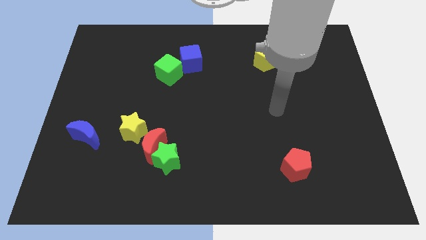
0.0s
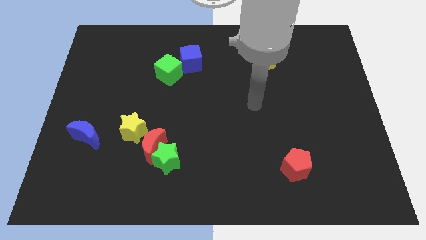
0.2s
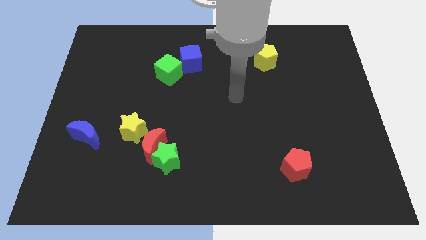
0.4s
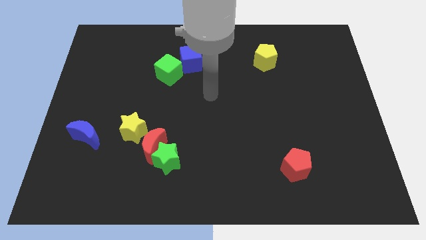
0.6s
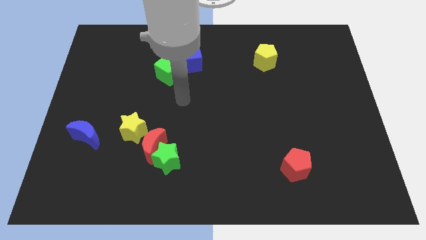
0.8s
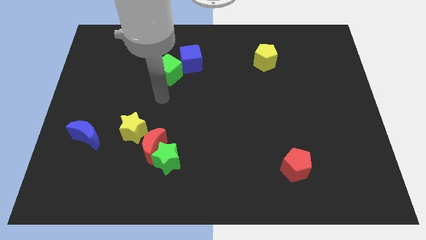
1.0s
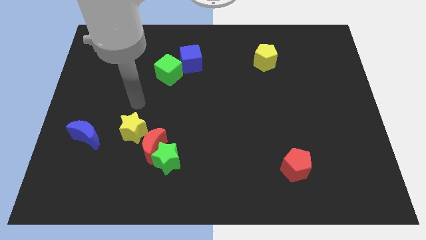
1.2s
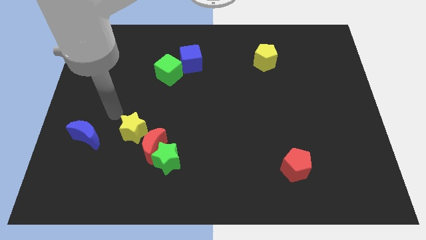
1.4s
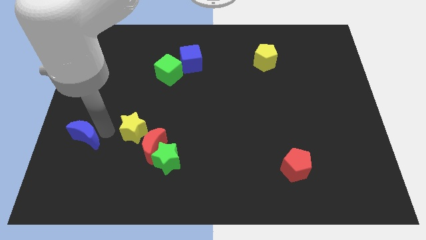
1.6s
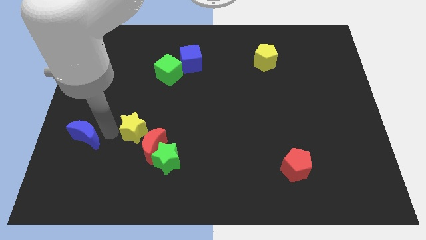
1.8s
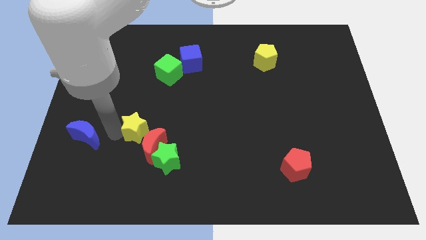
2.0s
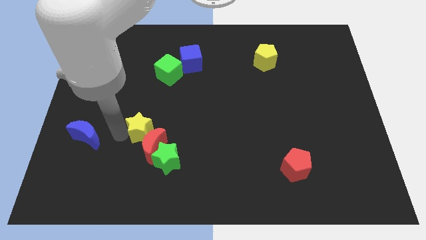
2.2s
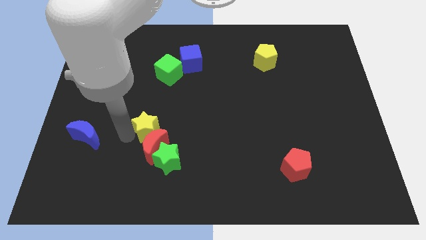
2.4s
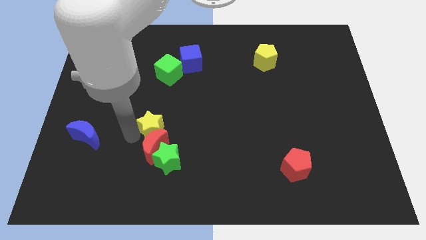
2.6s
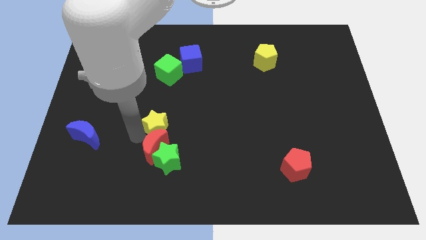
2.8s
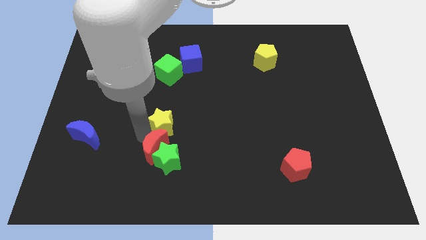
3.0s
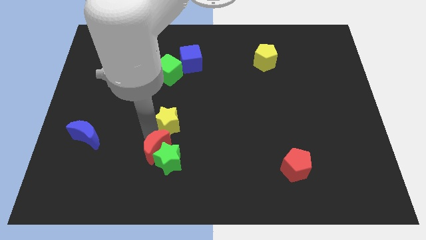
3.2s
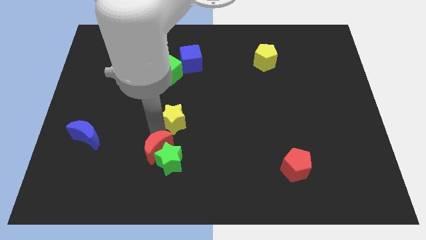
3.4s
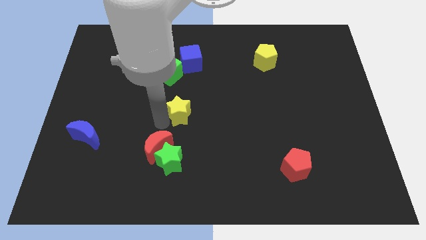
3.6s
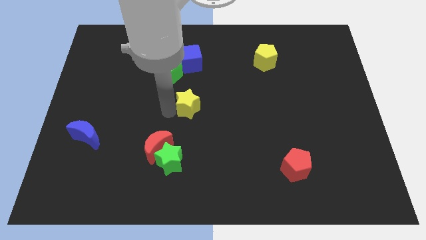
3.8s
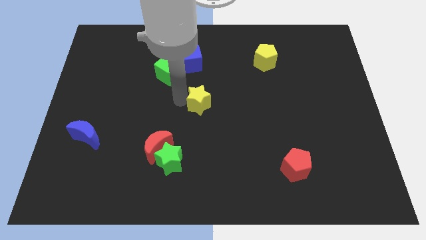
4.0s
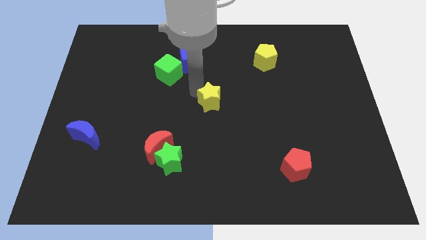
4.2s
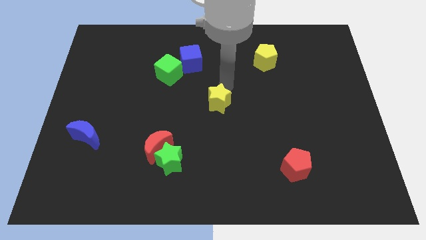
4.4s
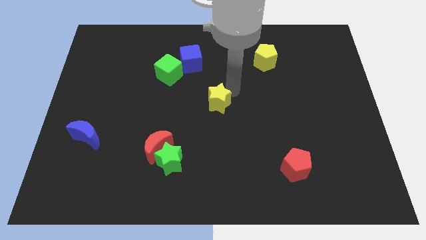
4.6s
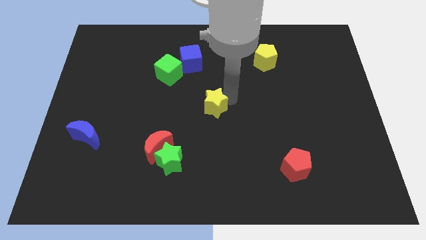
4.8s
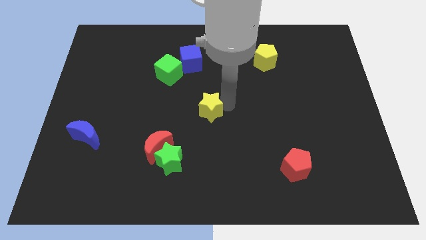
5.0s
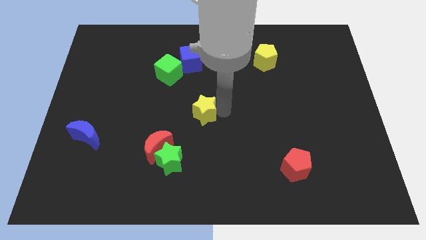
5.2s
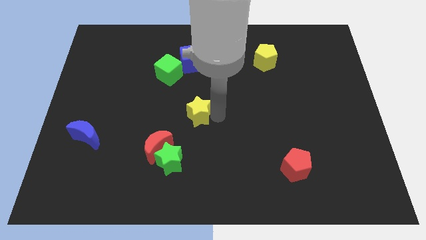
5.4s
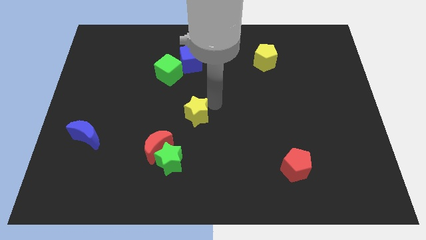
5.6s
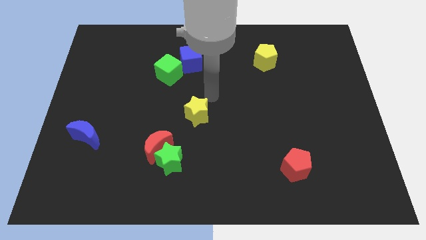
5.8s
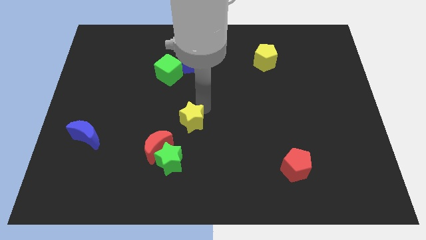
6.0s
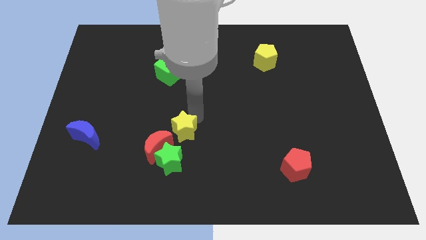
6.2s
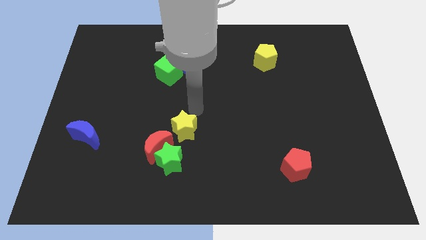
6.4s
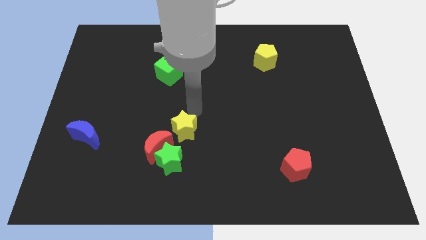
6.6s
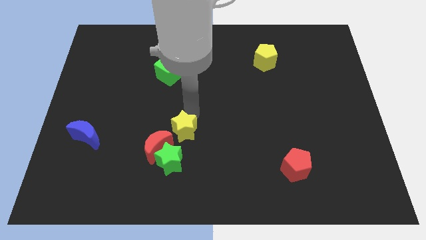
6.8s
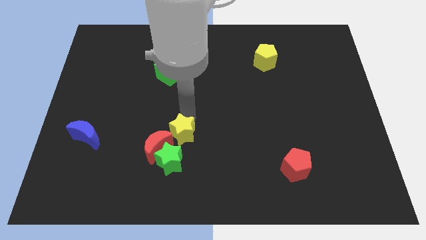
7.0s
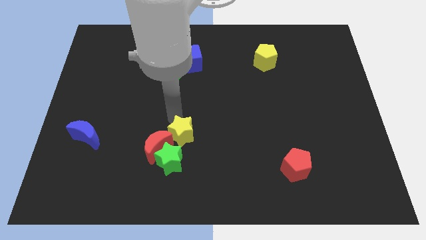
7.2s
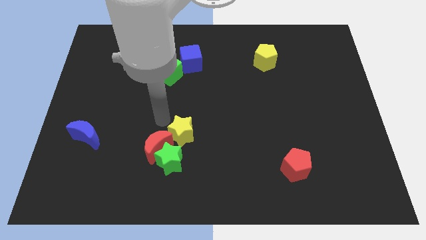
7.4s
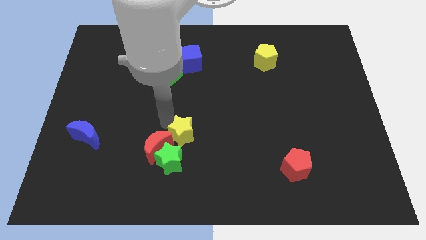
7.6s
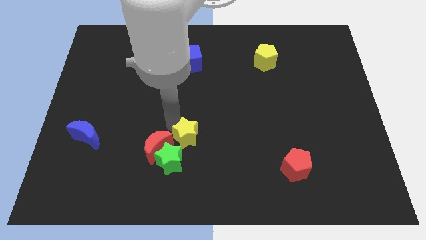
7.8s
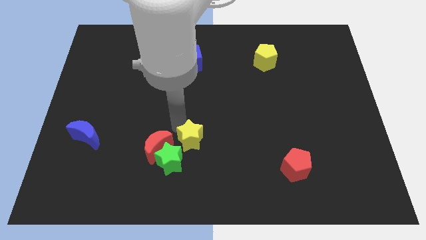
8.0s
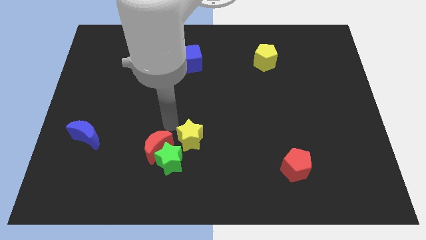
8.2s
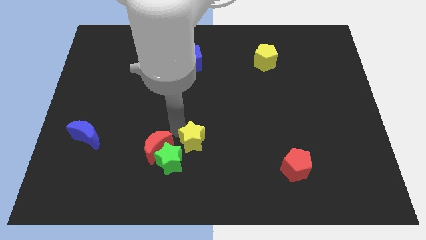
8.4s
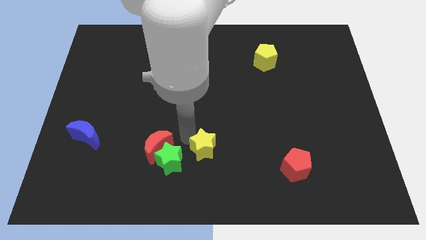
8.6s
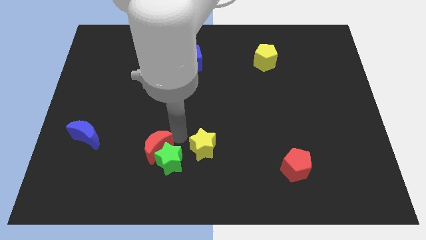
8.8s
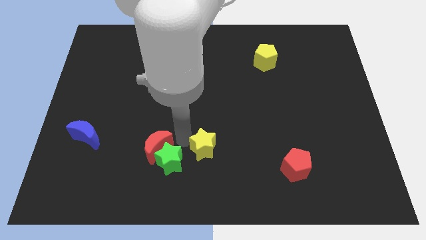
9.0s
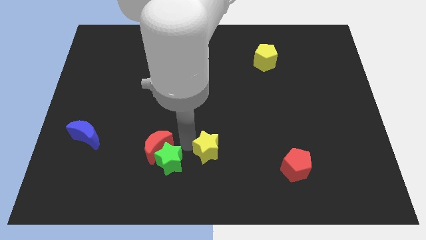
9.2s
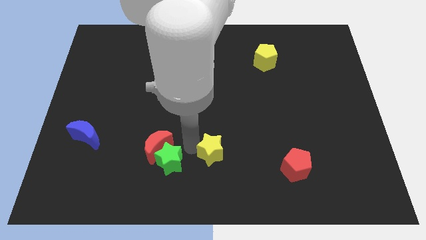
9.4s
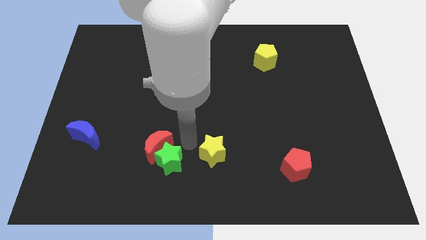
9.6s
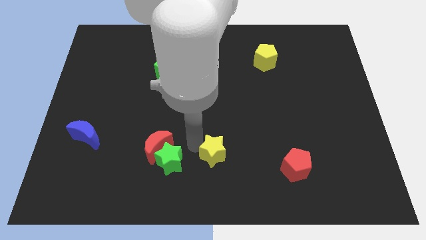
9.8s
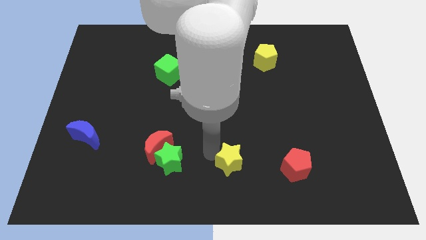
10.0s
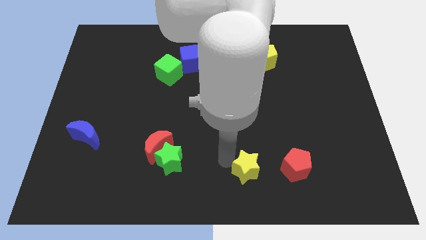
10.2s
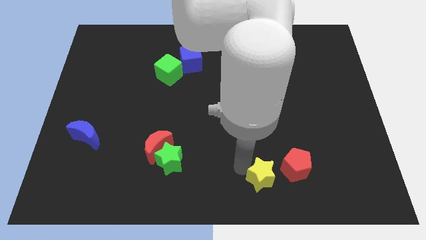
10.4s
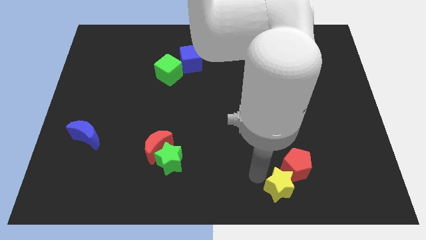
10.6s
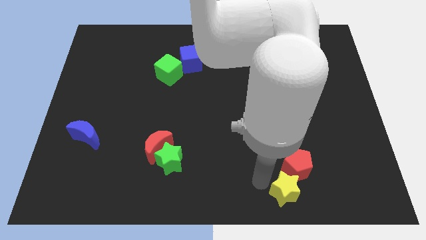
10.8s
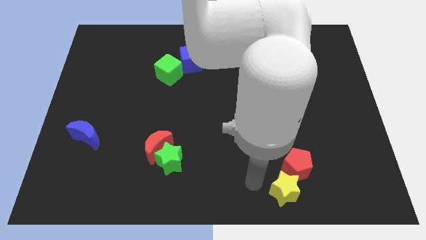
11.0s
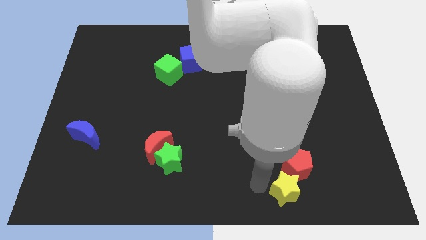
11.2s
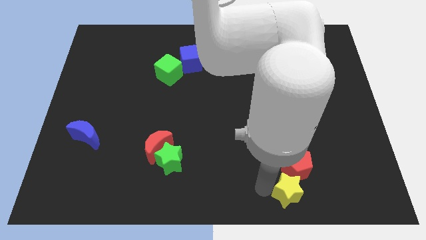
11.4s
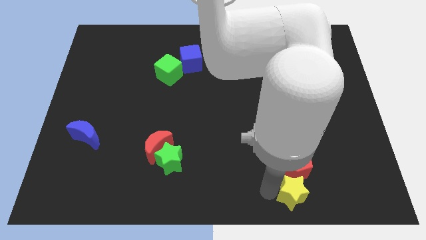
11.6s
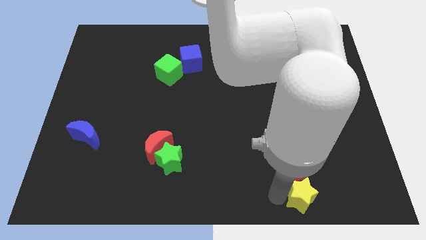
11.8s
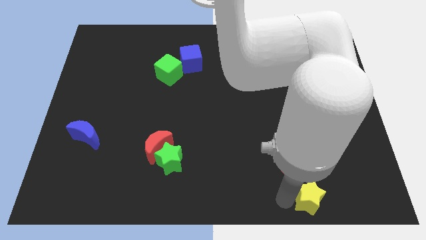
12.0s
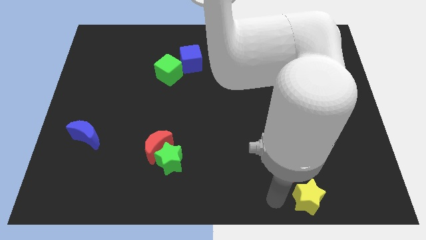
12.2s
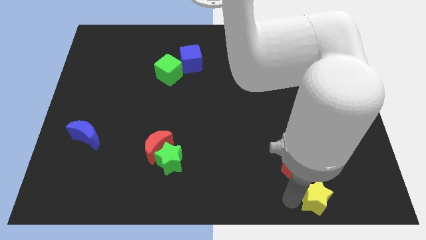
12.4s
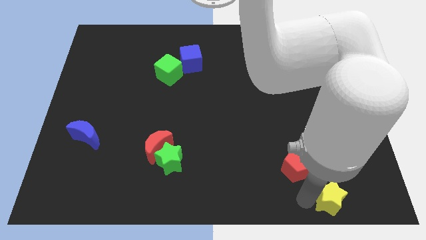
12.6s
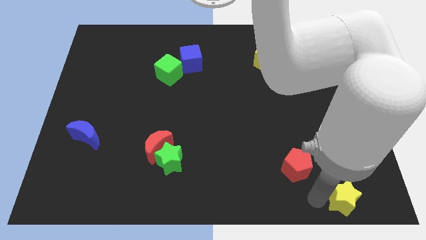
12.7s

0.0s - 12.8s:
move the yellow star to the bottom right corner
